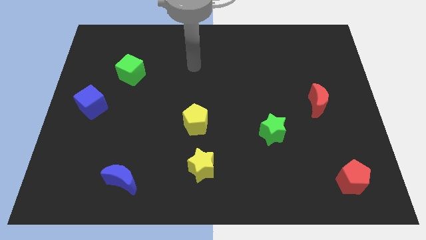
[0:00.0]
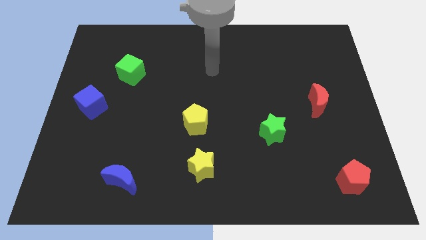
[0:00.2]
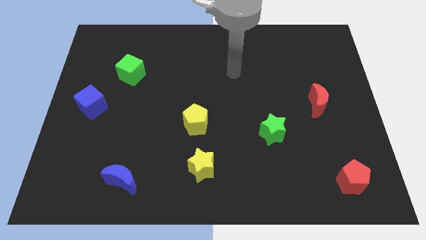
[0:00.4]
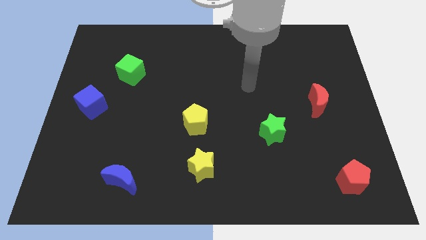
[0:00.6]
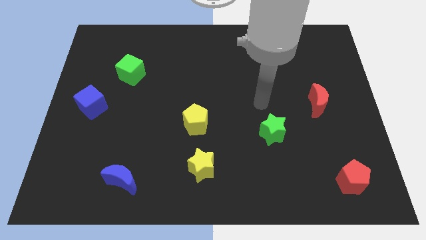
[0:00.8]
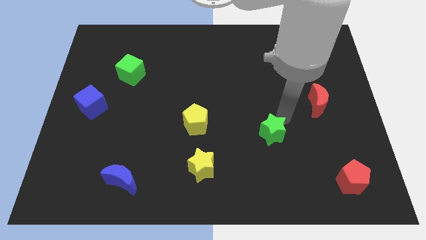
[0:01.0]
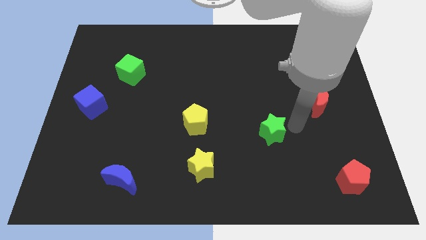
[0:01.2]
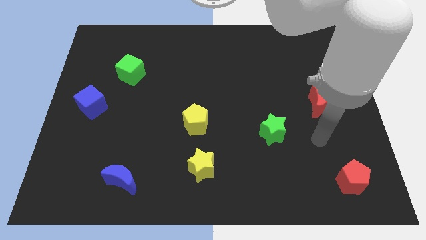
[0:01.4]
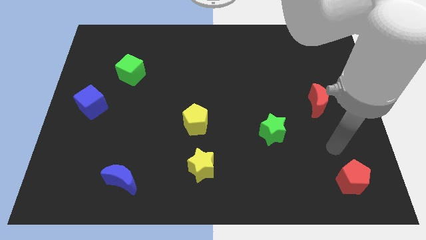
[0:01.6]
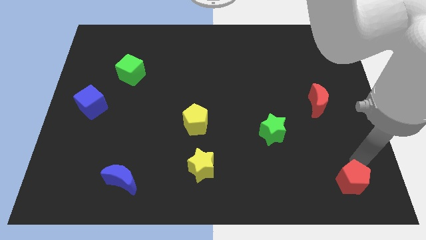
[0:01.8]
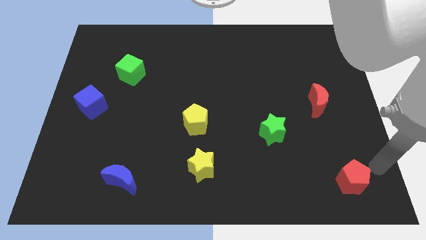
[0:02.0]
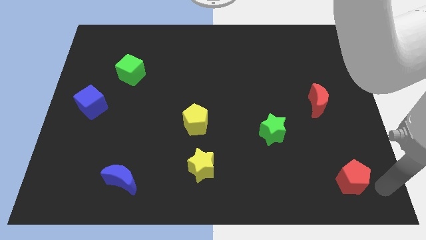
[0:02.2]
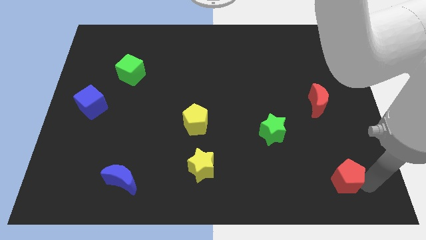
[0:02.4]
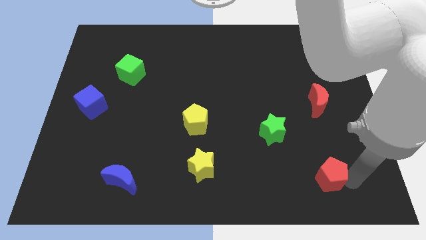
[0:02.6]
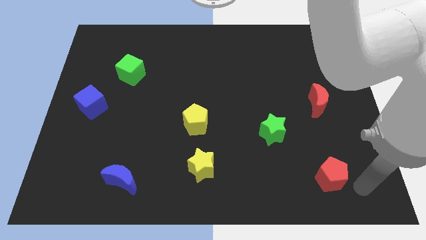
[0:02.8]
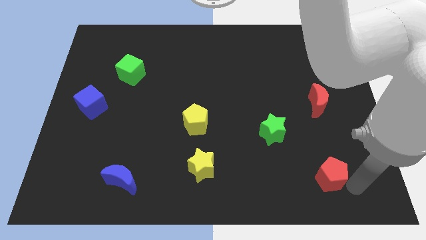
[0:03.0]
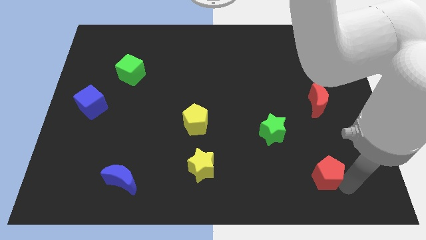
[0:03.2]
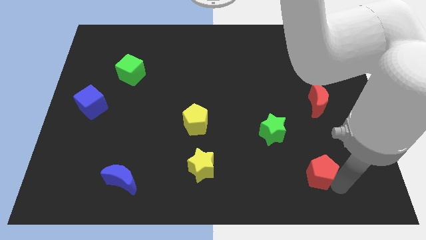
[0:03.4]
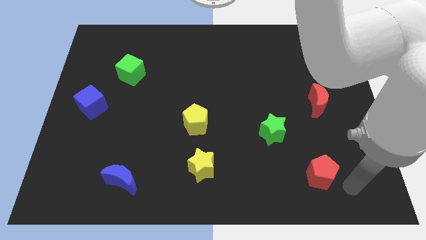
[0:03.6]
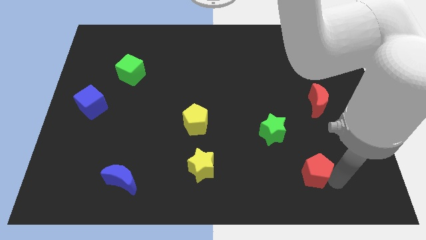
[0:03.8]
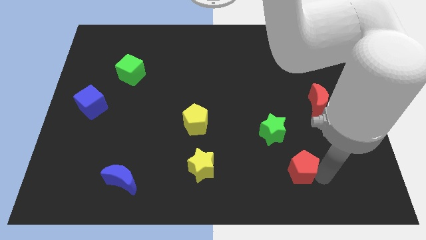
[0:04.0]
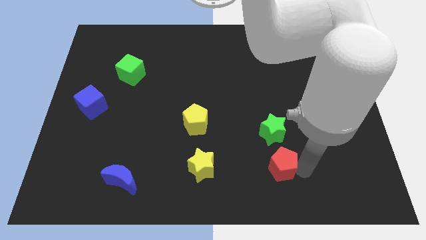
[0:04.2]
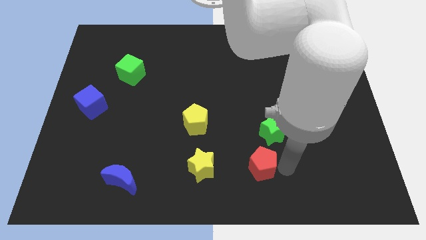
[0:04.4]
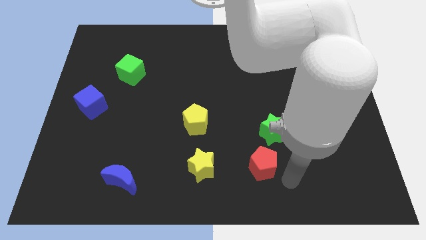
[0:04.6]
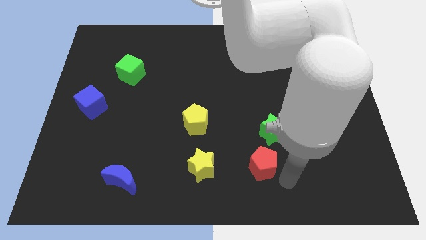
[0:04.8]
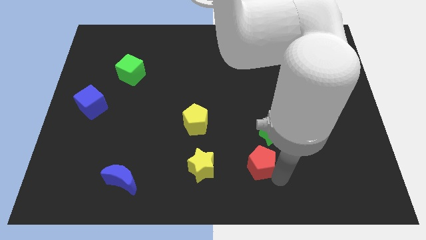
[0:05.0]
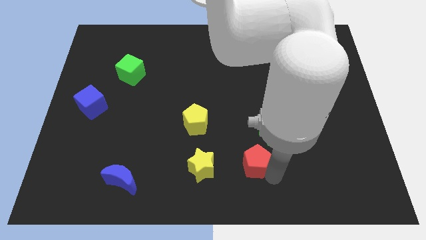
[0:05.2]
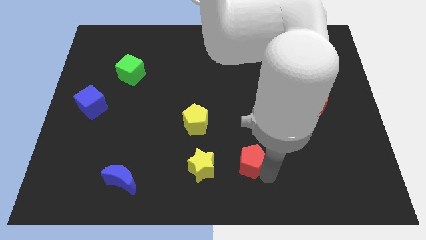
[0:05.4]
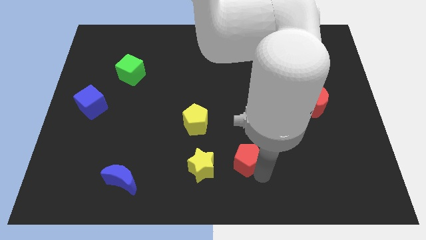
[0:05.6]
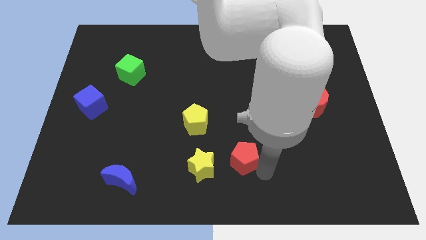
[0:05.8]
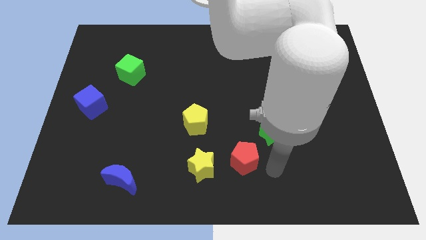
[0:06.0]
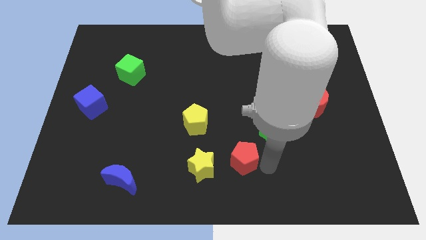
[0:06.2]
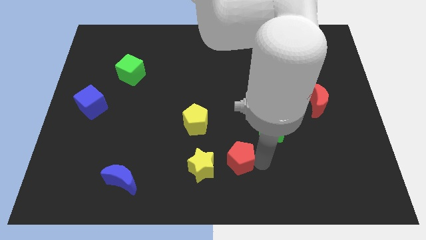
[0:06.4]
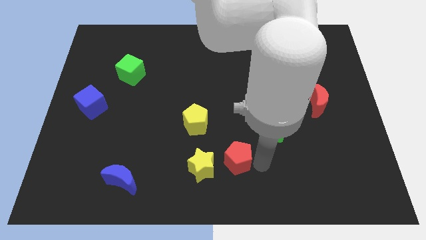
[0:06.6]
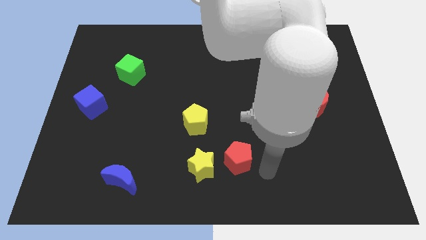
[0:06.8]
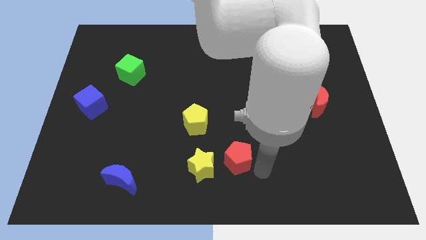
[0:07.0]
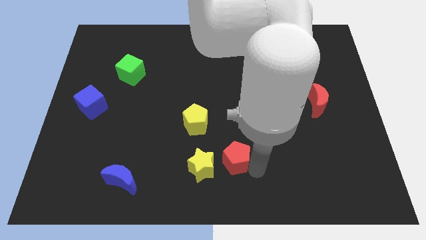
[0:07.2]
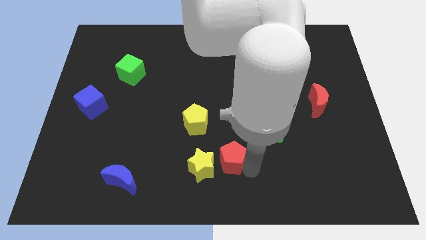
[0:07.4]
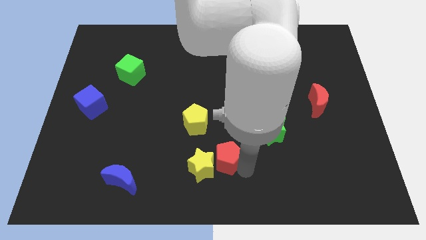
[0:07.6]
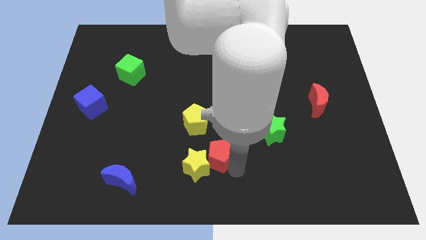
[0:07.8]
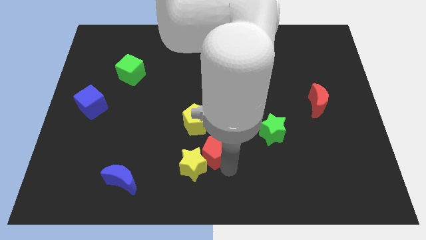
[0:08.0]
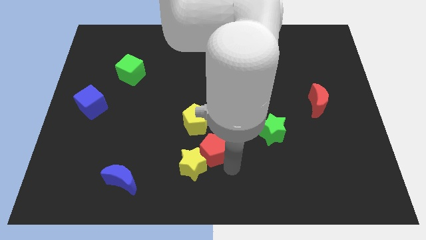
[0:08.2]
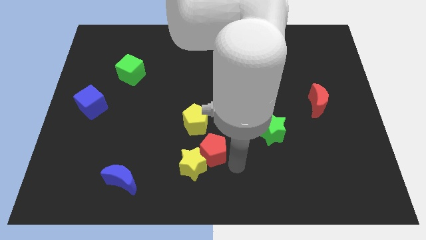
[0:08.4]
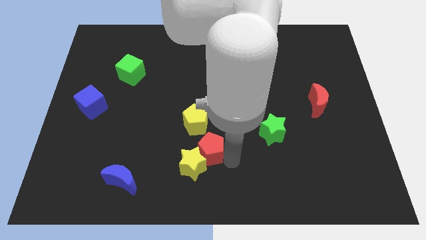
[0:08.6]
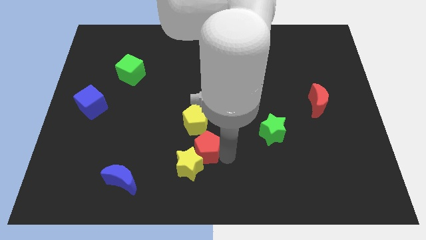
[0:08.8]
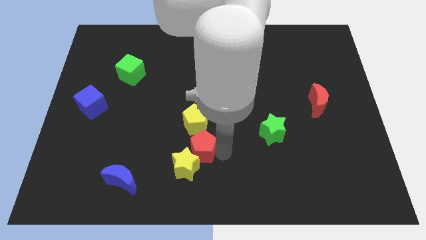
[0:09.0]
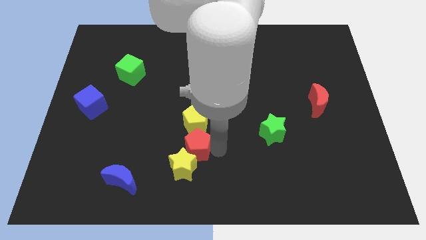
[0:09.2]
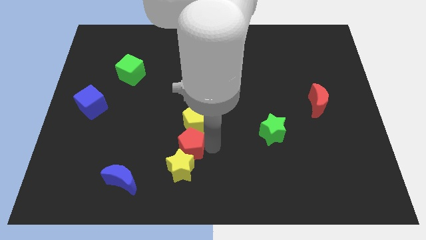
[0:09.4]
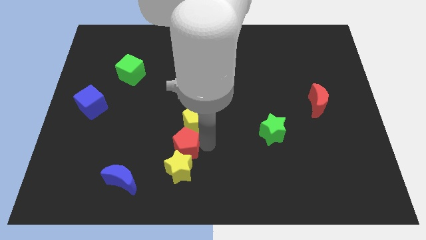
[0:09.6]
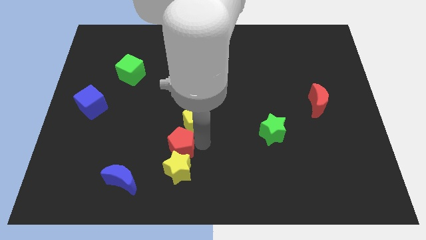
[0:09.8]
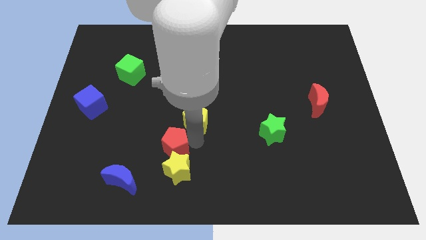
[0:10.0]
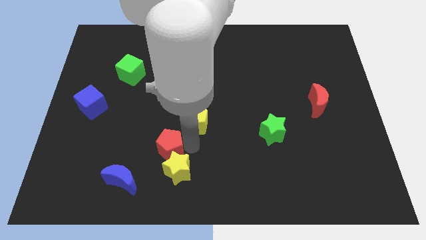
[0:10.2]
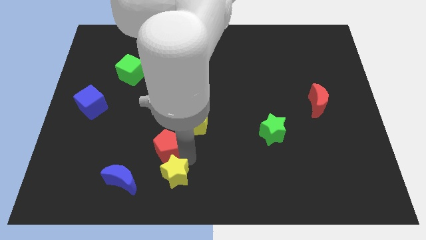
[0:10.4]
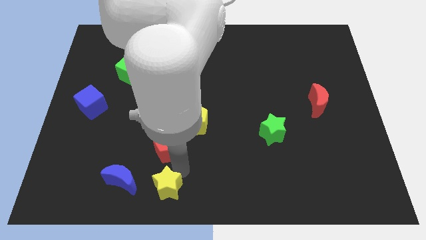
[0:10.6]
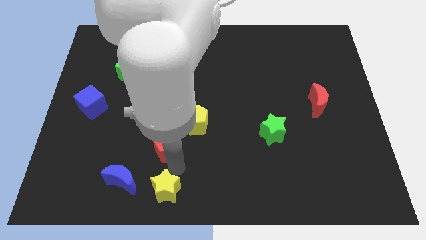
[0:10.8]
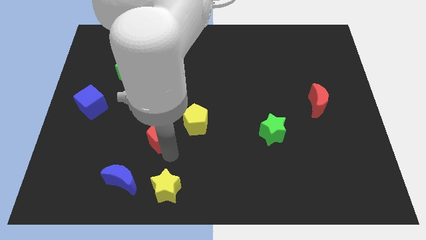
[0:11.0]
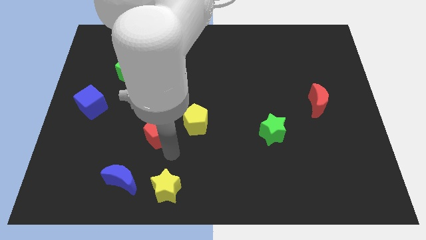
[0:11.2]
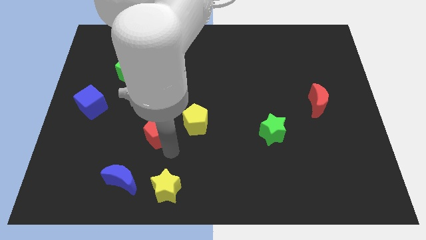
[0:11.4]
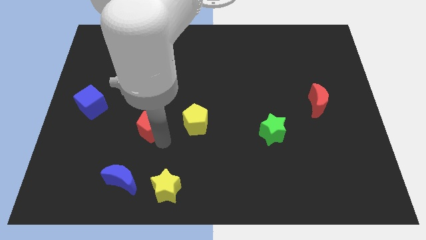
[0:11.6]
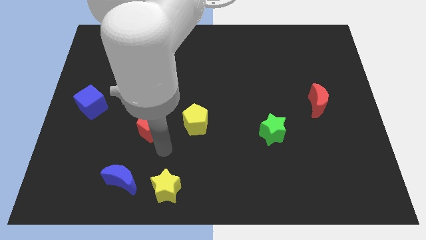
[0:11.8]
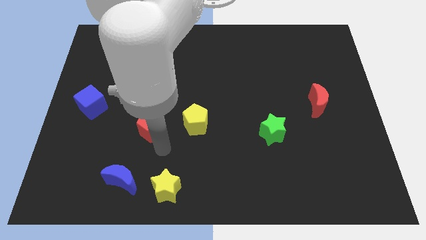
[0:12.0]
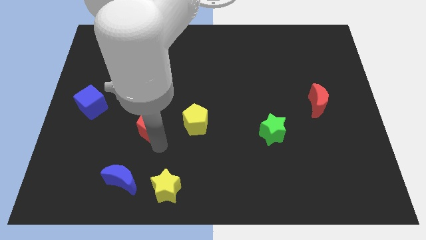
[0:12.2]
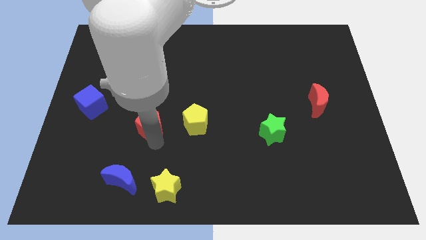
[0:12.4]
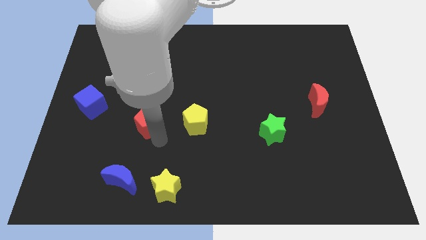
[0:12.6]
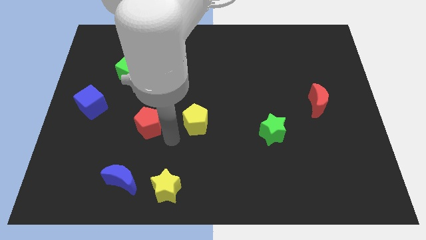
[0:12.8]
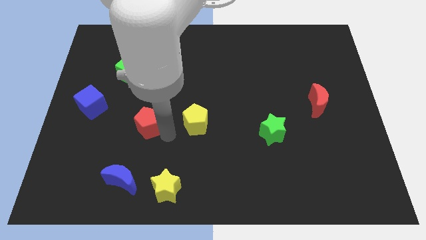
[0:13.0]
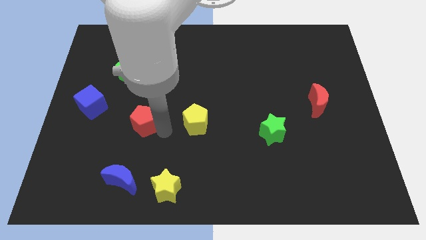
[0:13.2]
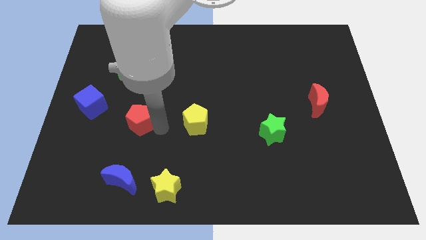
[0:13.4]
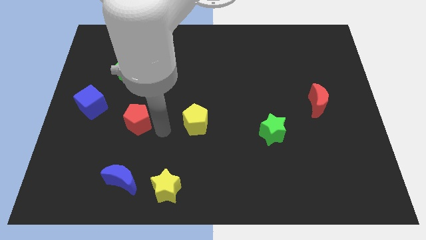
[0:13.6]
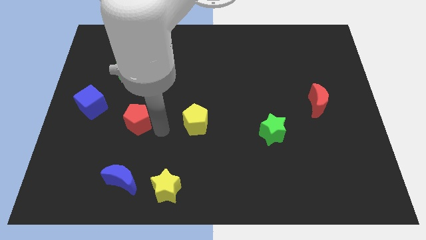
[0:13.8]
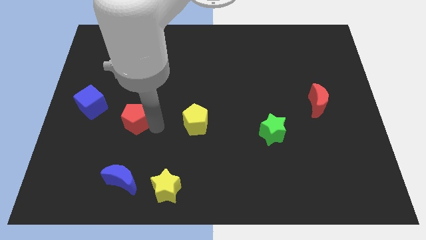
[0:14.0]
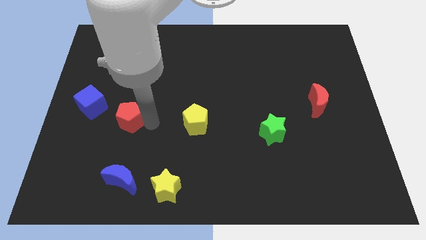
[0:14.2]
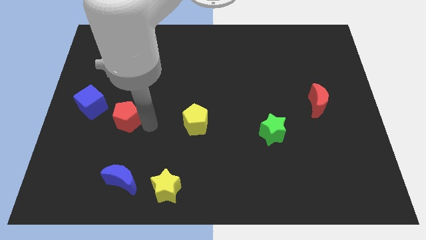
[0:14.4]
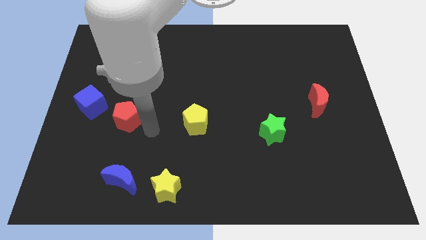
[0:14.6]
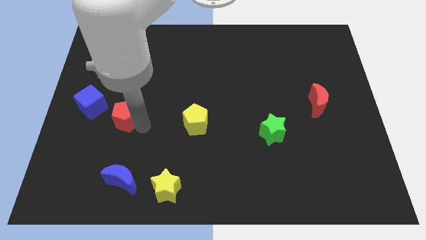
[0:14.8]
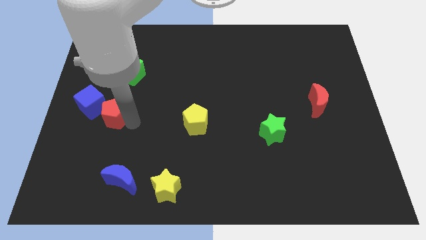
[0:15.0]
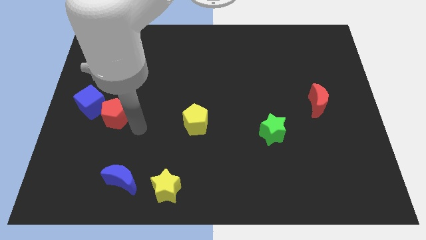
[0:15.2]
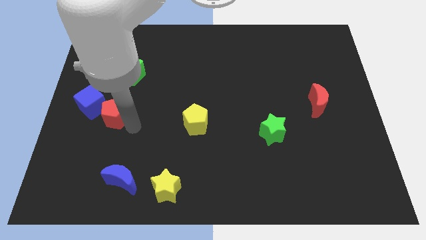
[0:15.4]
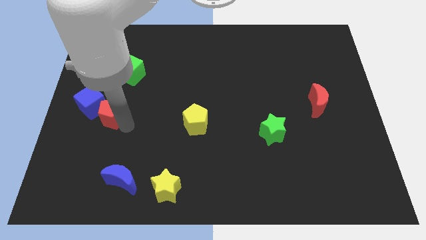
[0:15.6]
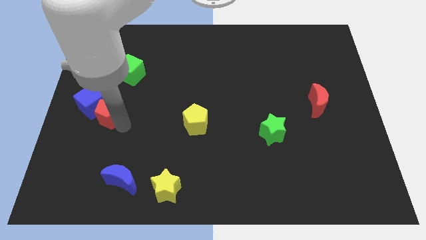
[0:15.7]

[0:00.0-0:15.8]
push the red pentagon to the blue cube
